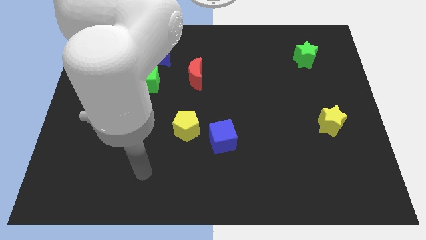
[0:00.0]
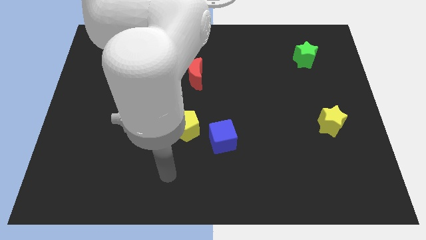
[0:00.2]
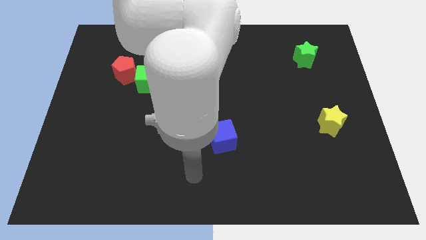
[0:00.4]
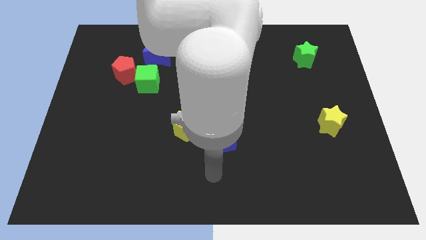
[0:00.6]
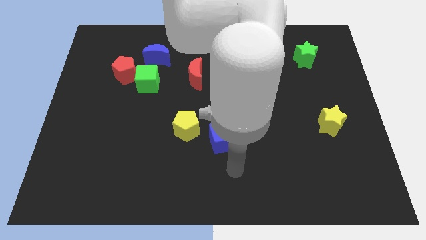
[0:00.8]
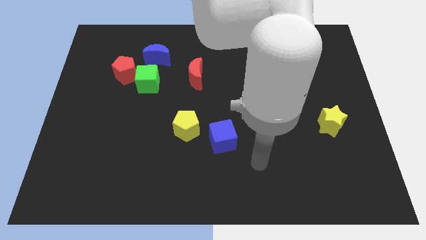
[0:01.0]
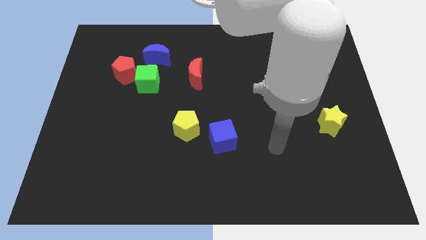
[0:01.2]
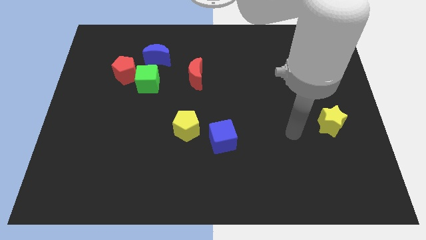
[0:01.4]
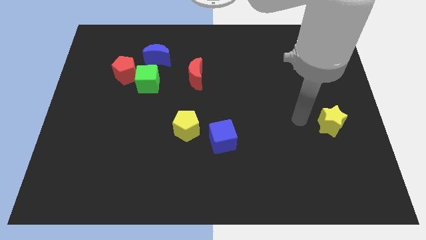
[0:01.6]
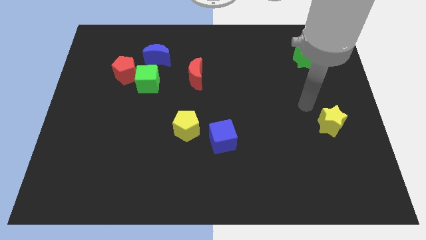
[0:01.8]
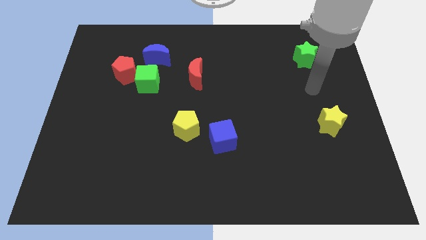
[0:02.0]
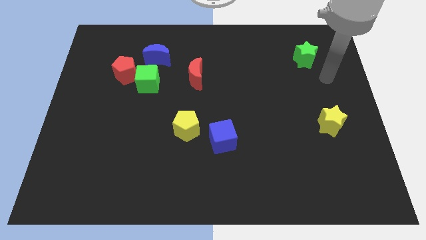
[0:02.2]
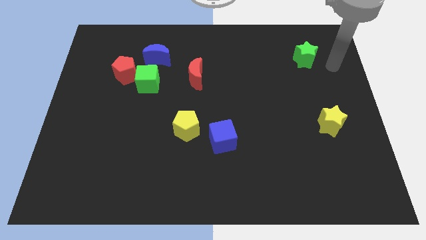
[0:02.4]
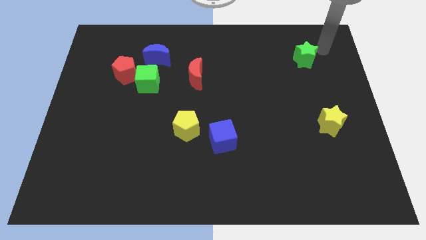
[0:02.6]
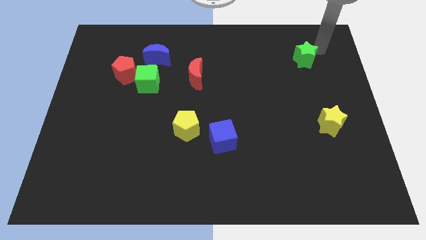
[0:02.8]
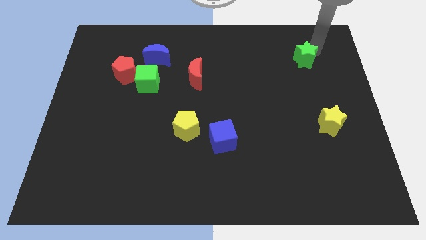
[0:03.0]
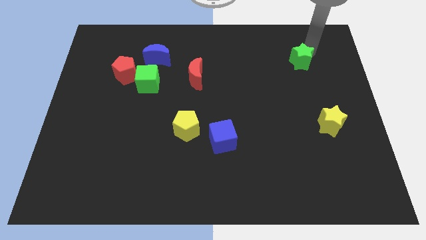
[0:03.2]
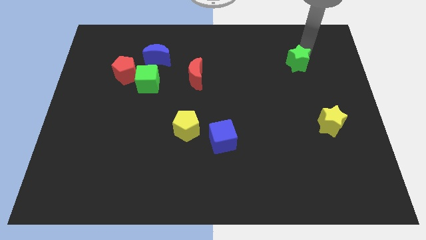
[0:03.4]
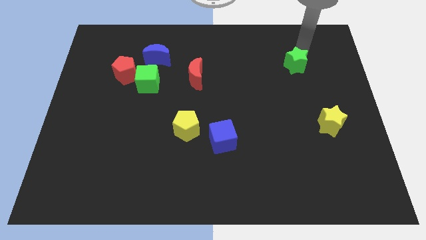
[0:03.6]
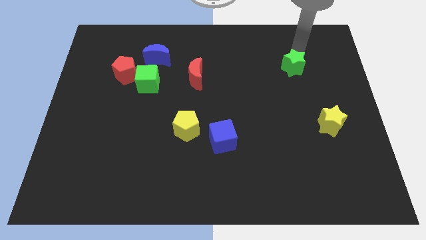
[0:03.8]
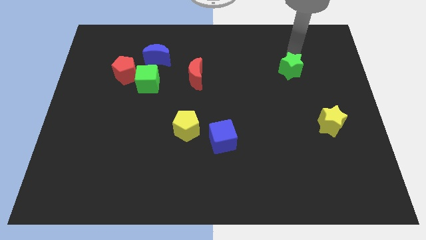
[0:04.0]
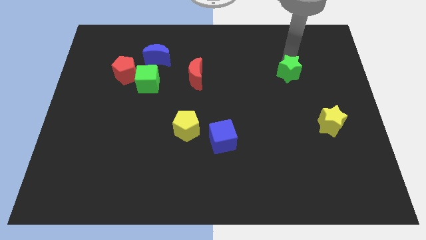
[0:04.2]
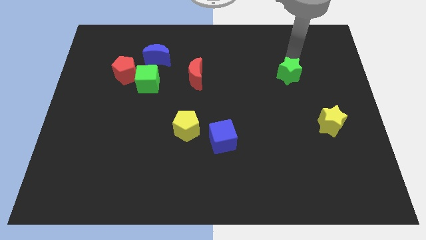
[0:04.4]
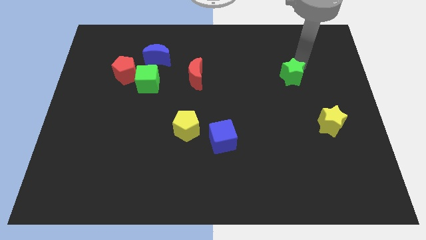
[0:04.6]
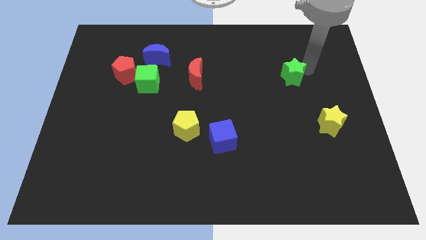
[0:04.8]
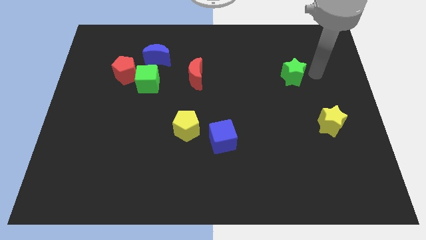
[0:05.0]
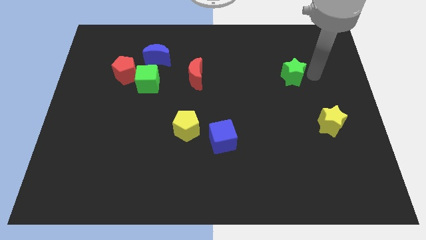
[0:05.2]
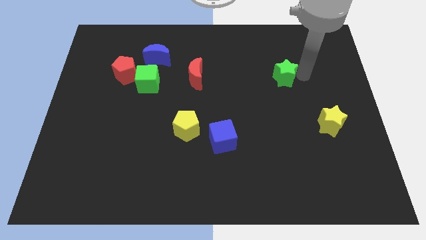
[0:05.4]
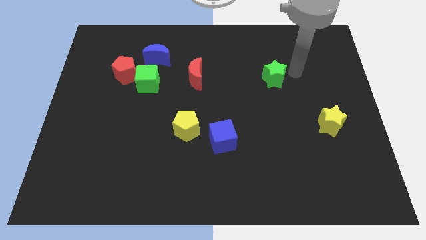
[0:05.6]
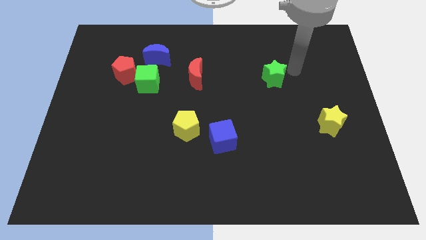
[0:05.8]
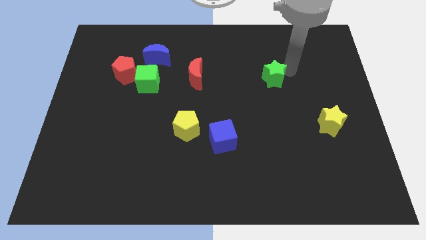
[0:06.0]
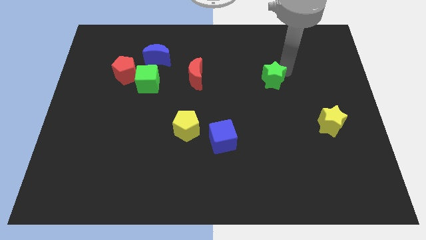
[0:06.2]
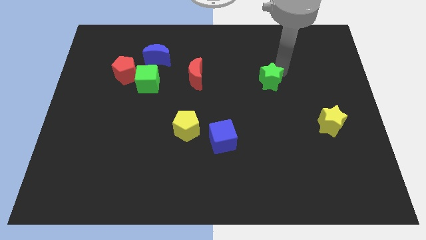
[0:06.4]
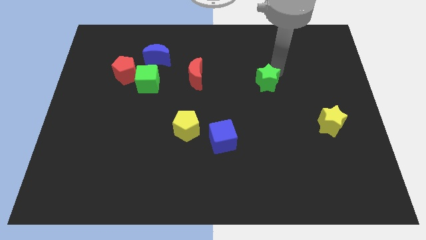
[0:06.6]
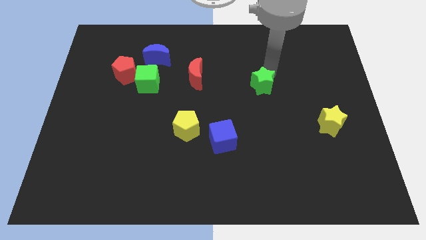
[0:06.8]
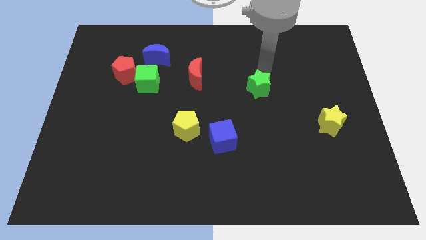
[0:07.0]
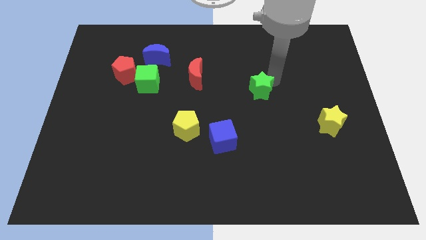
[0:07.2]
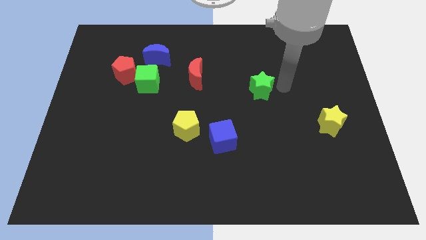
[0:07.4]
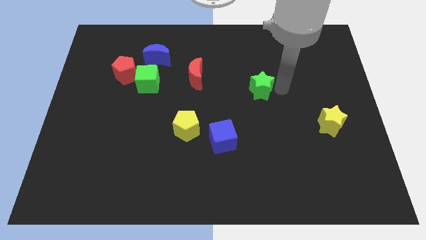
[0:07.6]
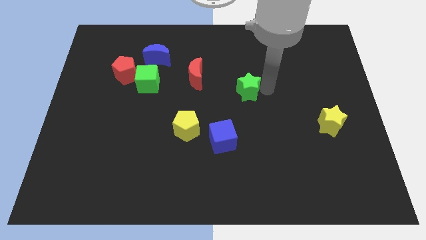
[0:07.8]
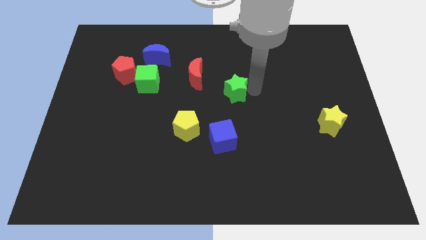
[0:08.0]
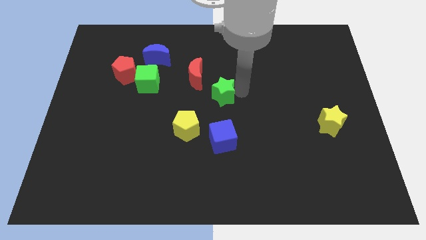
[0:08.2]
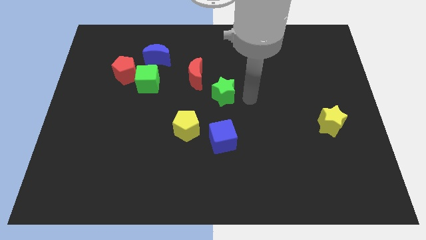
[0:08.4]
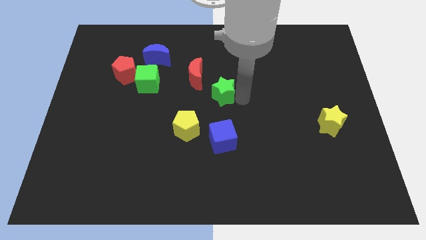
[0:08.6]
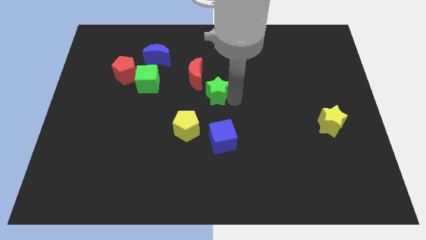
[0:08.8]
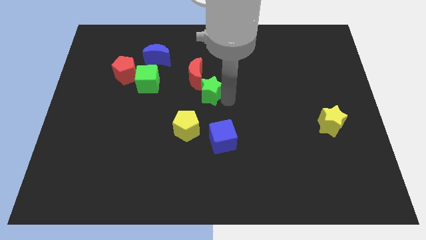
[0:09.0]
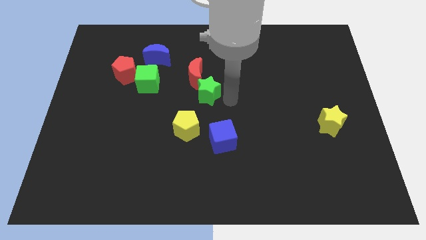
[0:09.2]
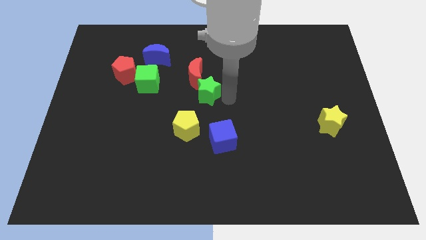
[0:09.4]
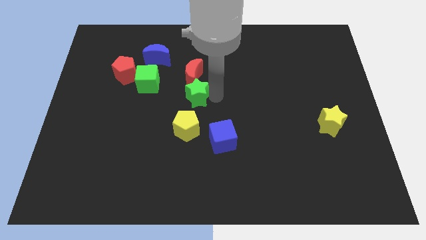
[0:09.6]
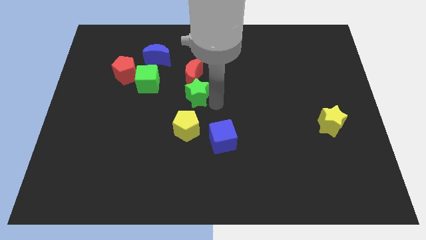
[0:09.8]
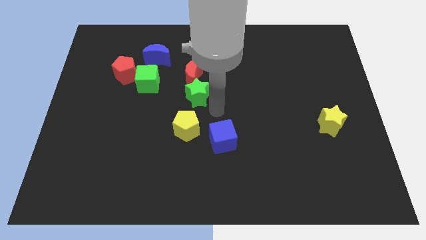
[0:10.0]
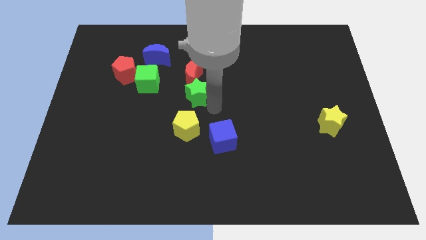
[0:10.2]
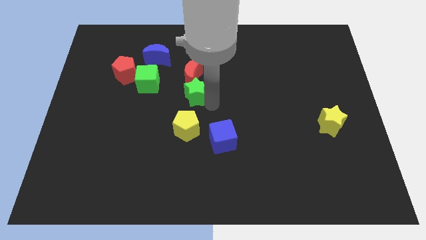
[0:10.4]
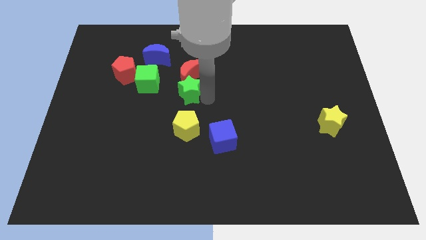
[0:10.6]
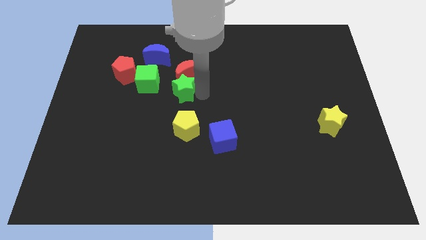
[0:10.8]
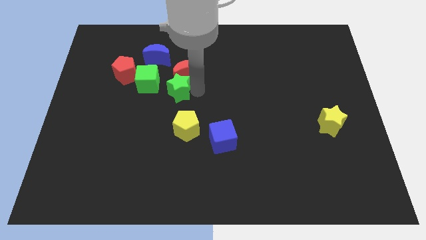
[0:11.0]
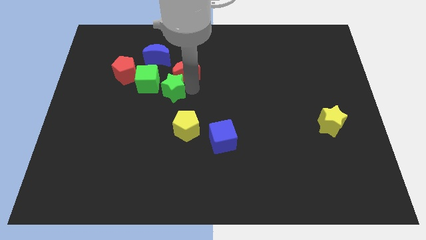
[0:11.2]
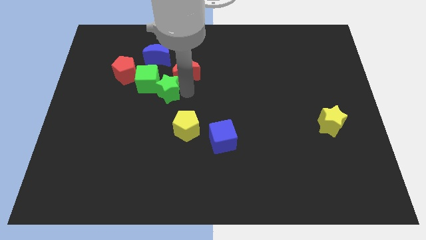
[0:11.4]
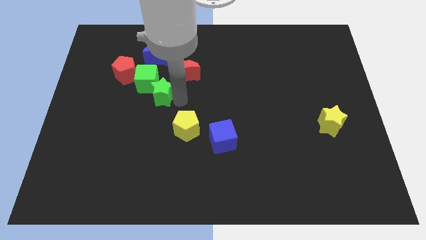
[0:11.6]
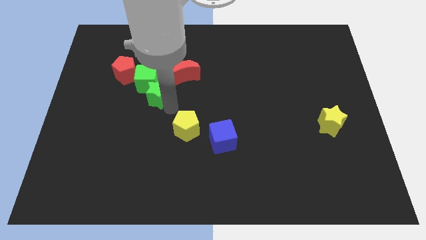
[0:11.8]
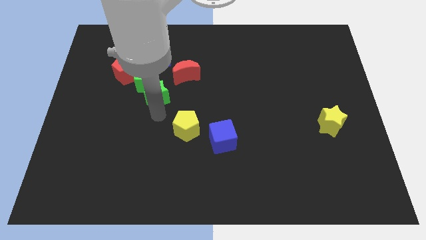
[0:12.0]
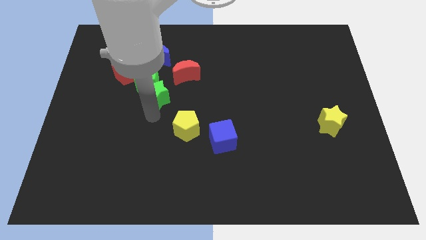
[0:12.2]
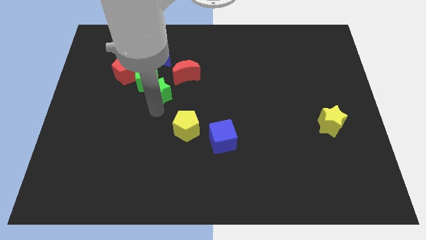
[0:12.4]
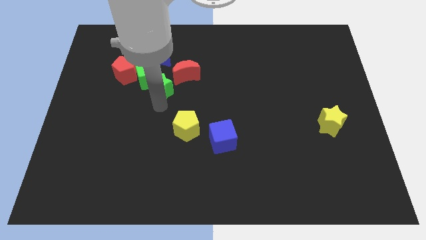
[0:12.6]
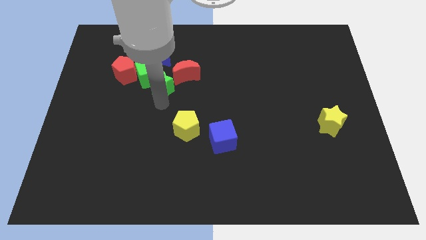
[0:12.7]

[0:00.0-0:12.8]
push the green star to the right side of the red pentagon
